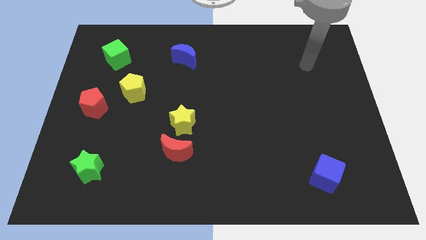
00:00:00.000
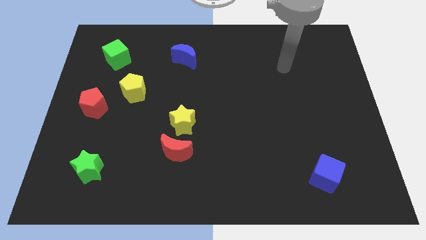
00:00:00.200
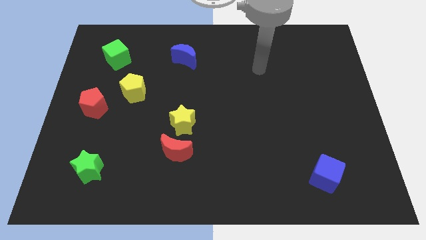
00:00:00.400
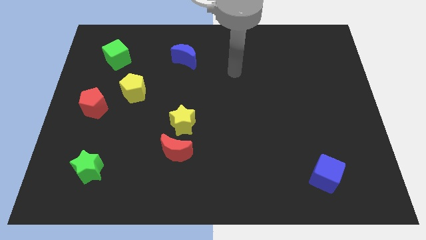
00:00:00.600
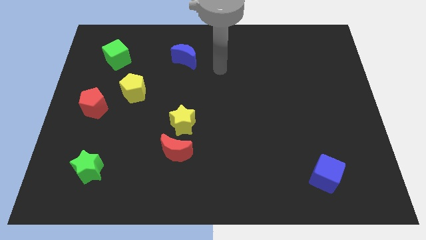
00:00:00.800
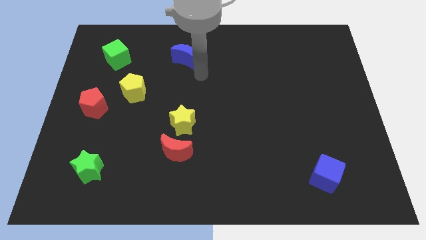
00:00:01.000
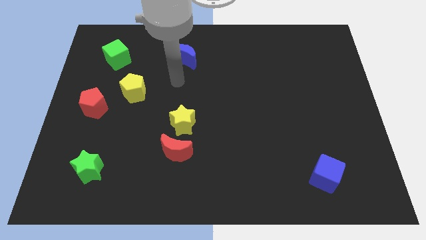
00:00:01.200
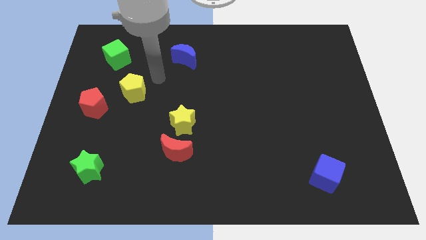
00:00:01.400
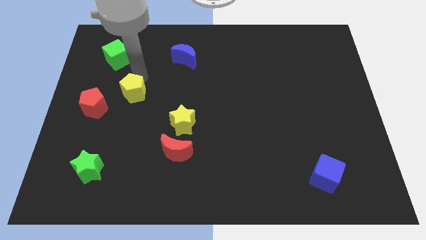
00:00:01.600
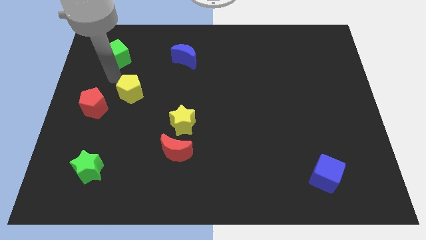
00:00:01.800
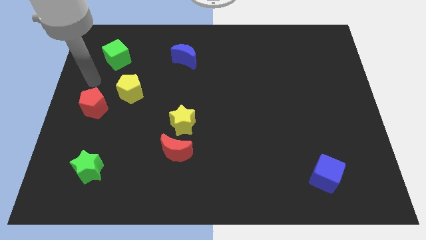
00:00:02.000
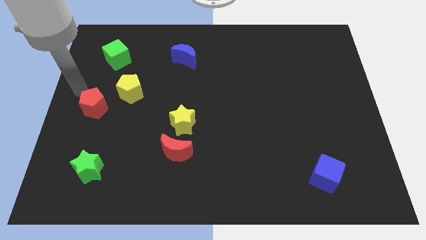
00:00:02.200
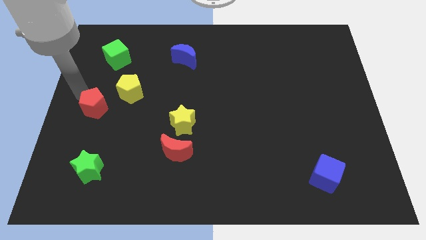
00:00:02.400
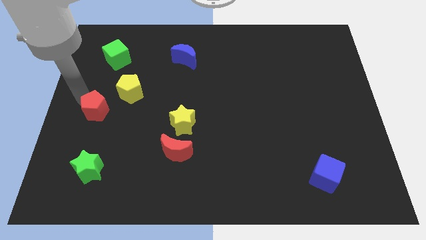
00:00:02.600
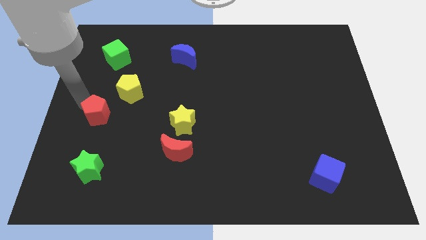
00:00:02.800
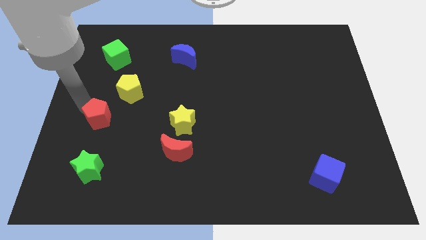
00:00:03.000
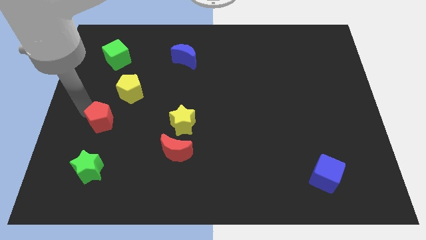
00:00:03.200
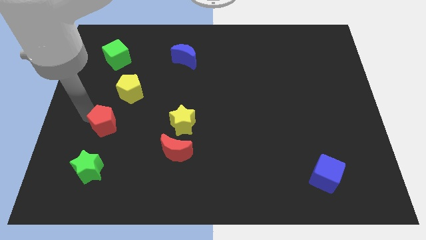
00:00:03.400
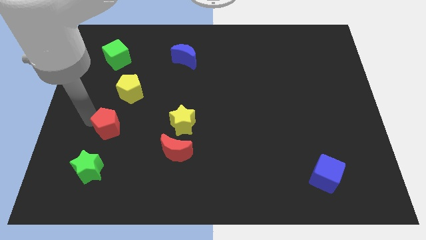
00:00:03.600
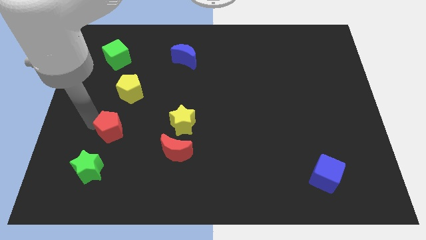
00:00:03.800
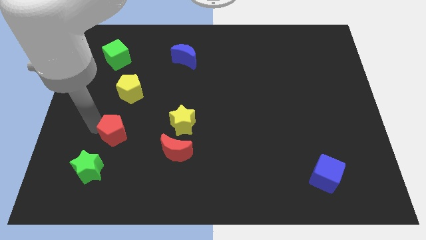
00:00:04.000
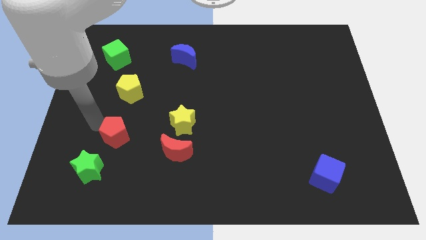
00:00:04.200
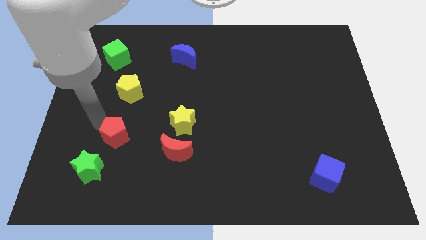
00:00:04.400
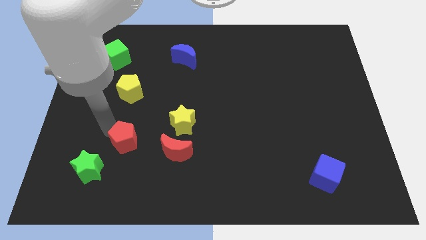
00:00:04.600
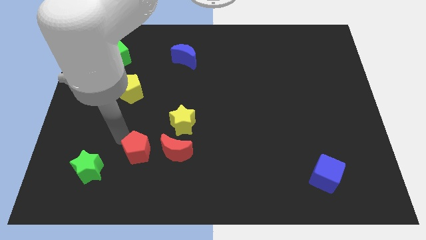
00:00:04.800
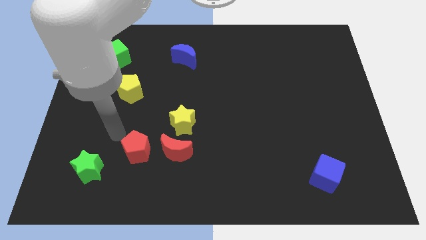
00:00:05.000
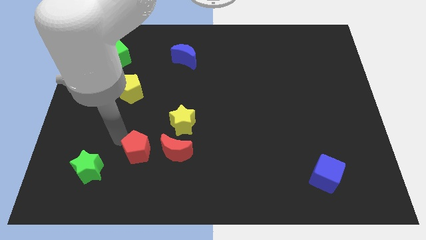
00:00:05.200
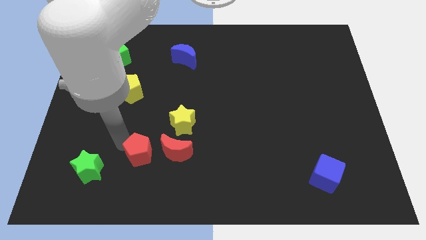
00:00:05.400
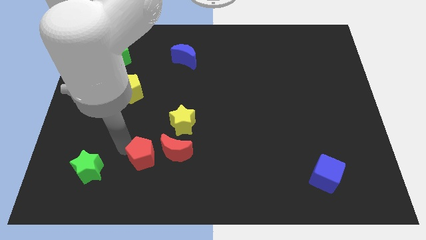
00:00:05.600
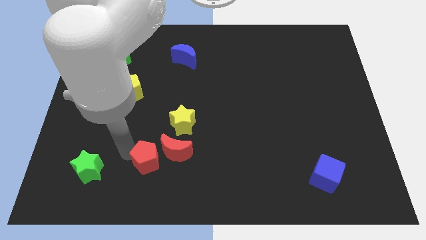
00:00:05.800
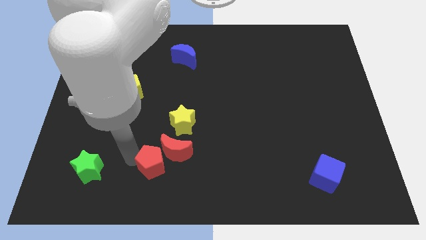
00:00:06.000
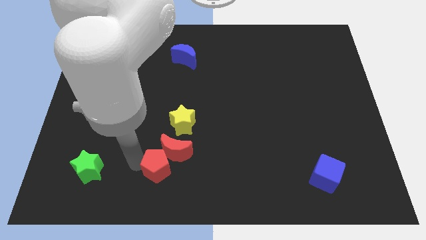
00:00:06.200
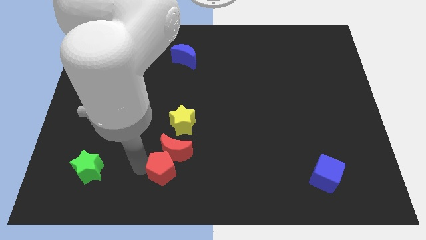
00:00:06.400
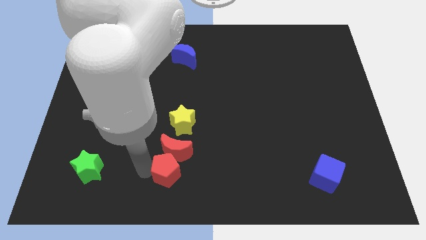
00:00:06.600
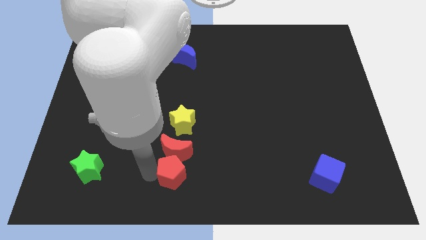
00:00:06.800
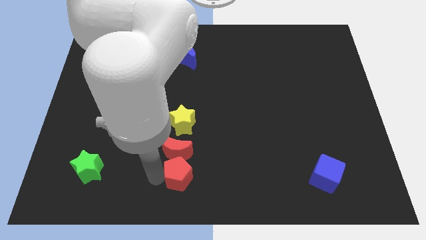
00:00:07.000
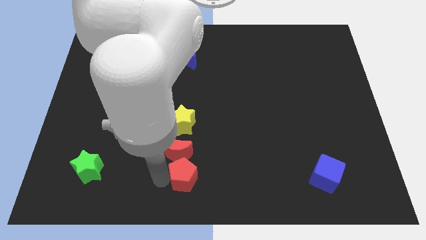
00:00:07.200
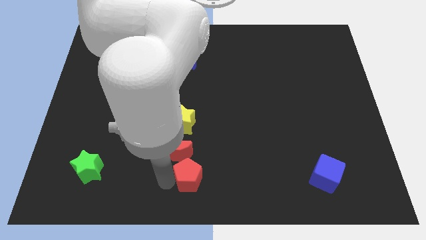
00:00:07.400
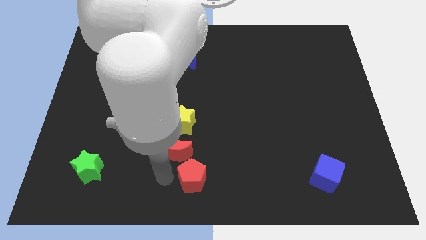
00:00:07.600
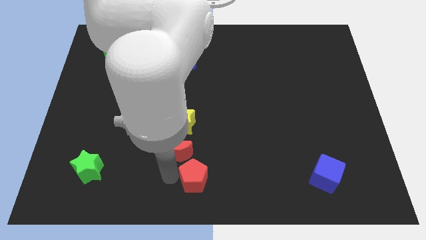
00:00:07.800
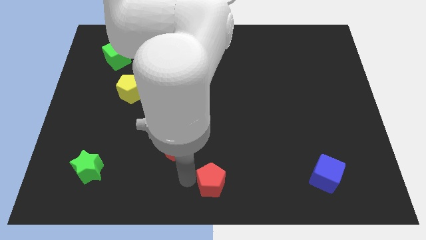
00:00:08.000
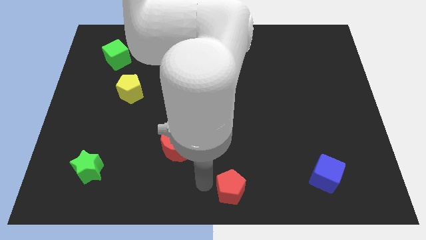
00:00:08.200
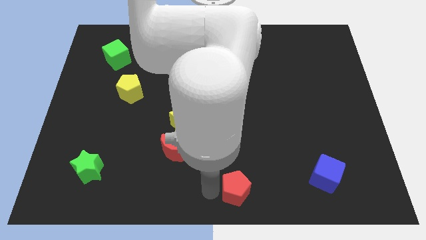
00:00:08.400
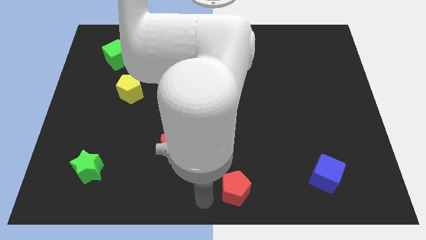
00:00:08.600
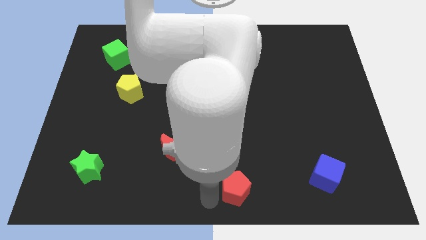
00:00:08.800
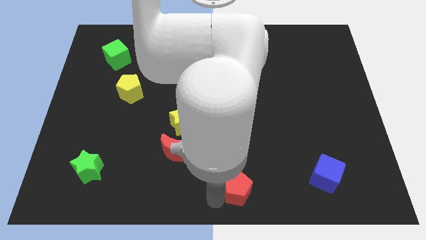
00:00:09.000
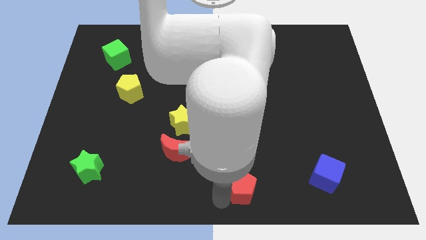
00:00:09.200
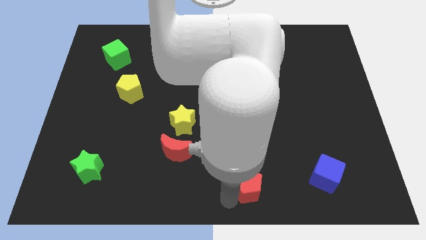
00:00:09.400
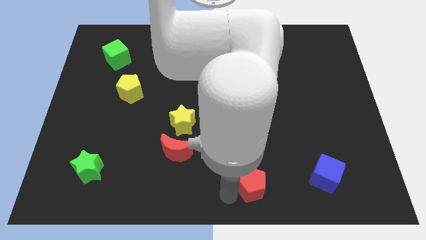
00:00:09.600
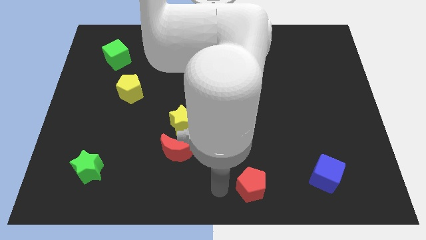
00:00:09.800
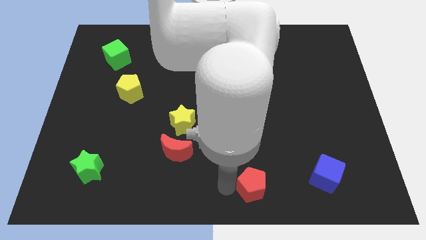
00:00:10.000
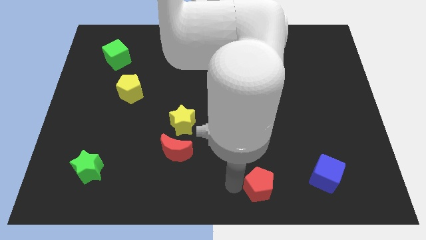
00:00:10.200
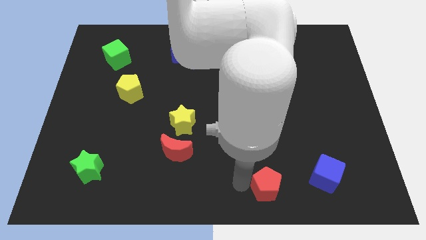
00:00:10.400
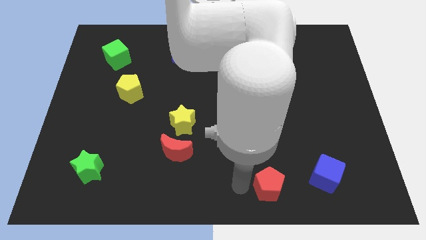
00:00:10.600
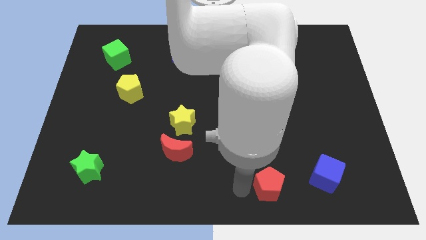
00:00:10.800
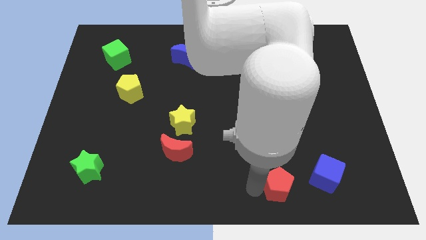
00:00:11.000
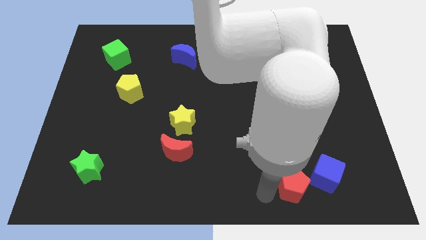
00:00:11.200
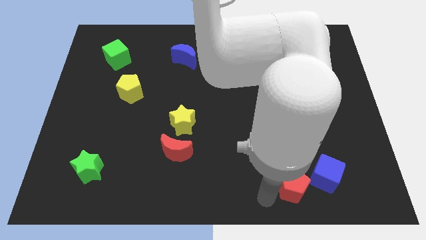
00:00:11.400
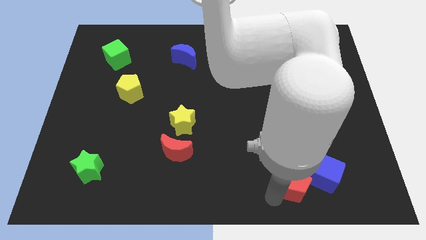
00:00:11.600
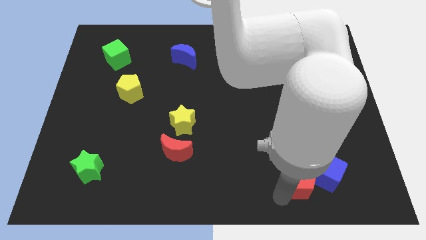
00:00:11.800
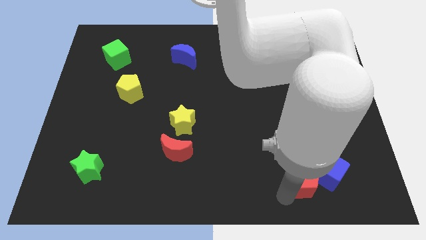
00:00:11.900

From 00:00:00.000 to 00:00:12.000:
move the red pentagon to the blue cube

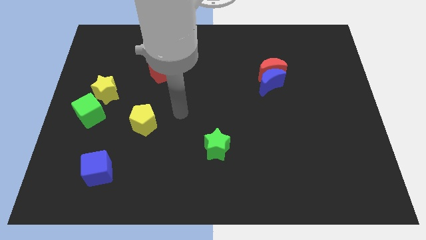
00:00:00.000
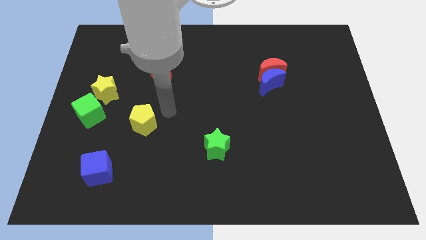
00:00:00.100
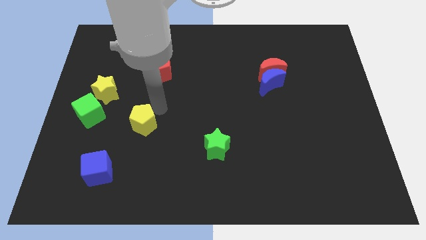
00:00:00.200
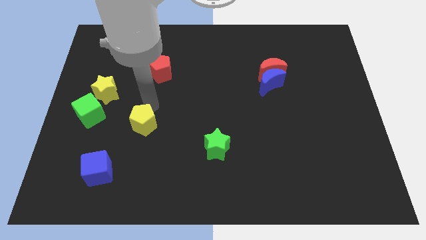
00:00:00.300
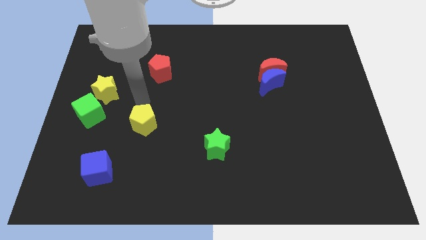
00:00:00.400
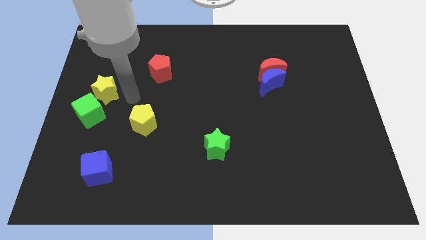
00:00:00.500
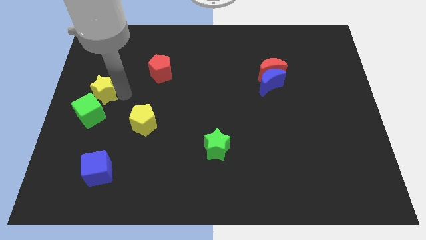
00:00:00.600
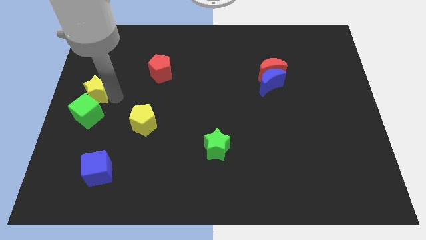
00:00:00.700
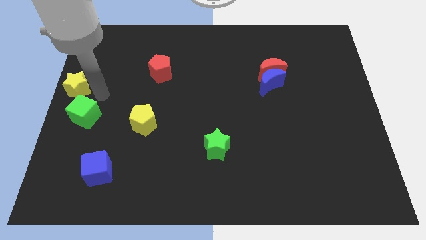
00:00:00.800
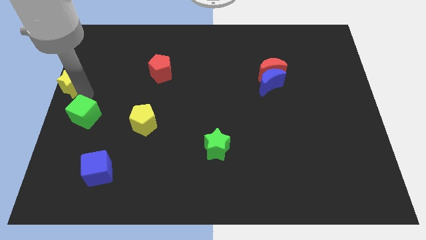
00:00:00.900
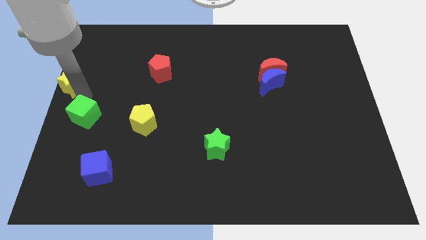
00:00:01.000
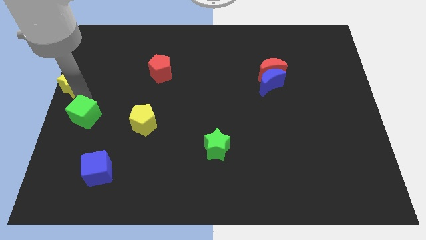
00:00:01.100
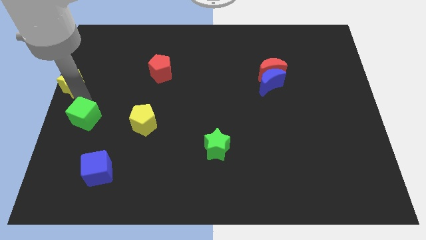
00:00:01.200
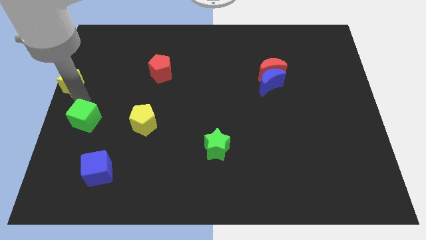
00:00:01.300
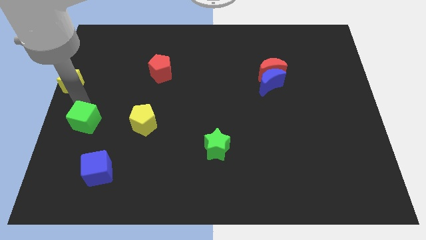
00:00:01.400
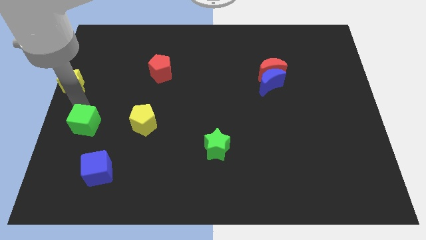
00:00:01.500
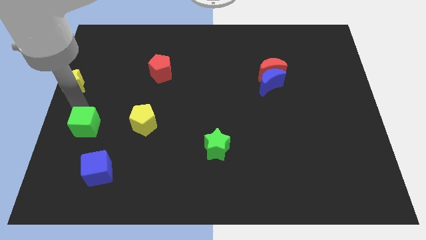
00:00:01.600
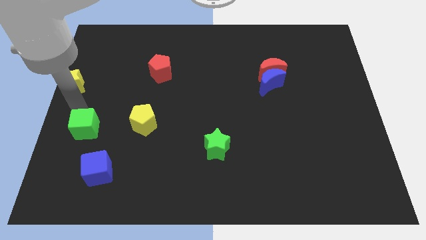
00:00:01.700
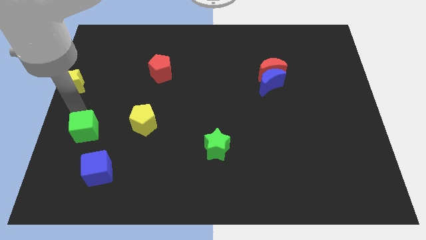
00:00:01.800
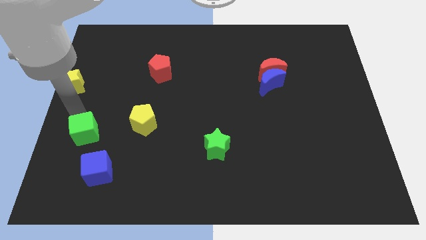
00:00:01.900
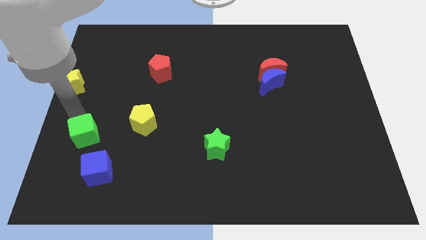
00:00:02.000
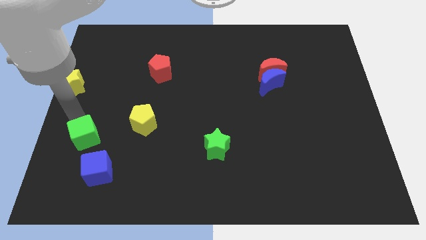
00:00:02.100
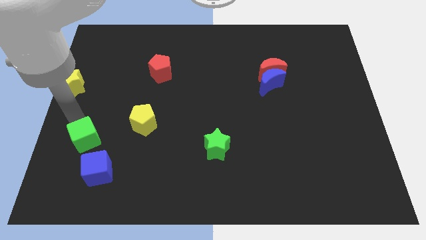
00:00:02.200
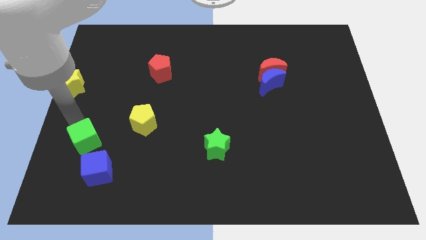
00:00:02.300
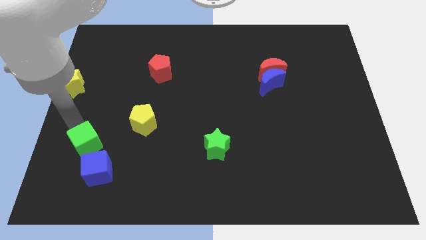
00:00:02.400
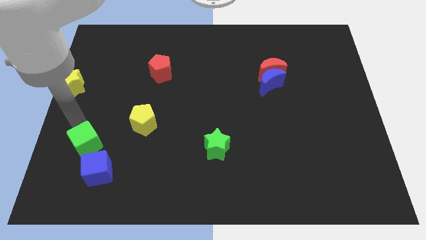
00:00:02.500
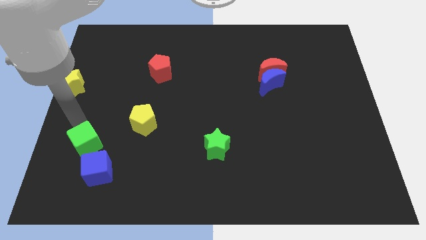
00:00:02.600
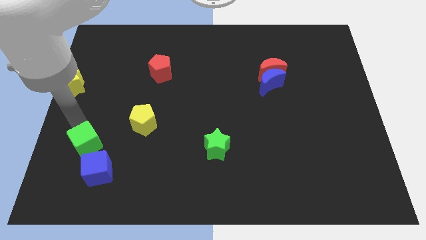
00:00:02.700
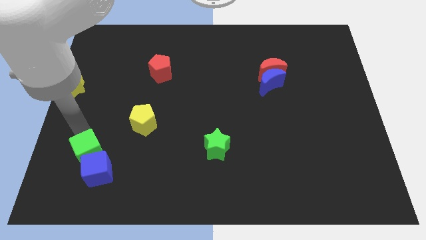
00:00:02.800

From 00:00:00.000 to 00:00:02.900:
slide the green cube towards the blue cube
